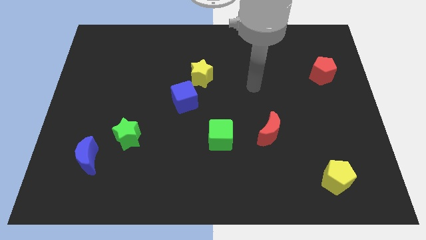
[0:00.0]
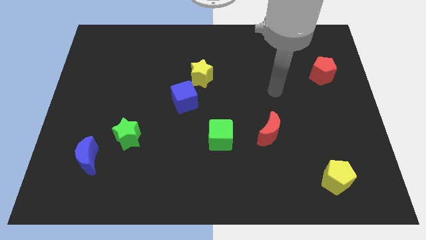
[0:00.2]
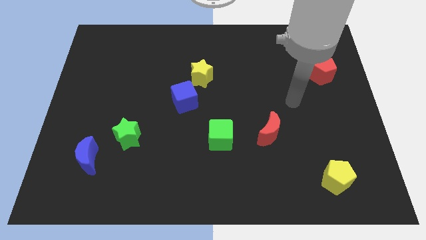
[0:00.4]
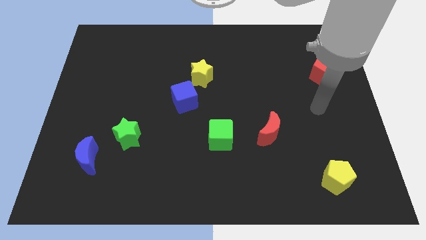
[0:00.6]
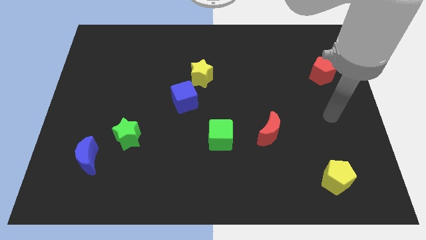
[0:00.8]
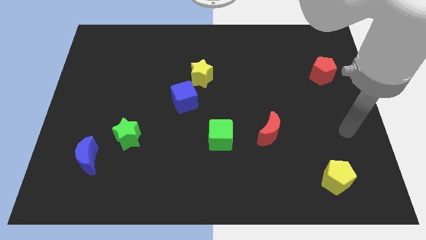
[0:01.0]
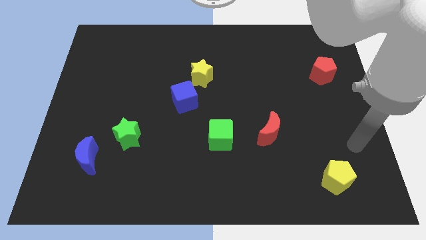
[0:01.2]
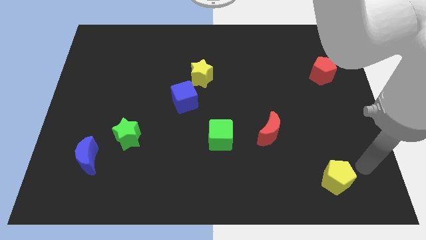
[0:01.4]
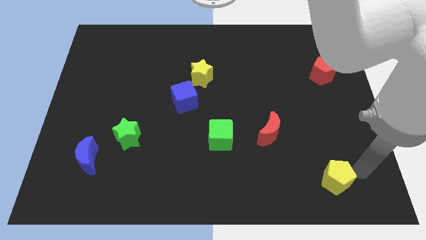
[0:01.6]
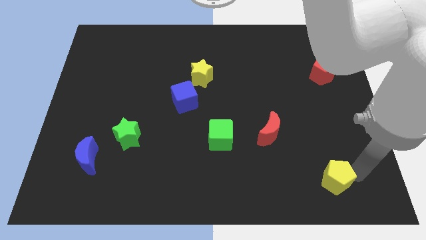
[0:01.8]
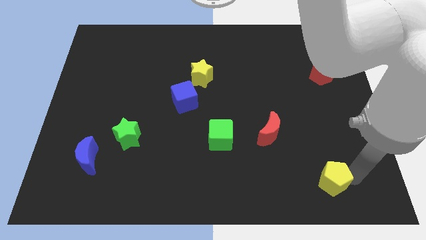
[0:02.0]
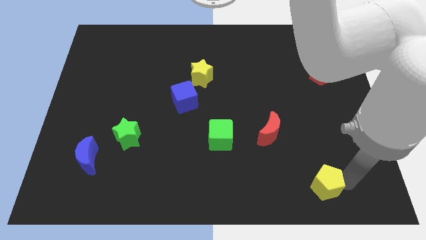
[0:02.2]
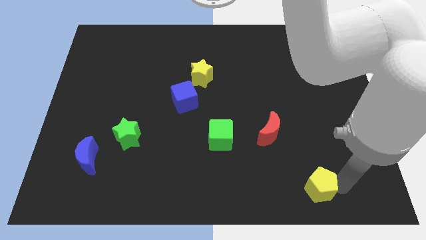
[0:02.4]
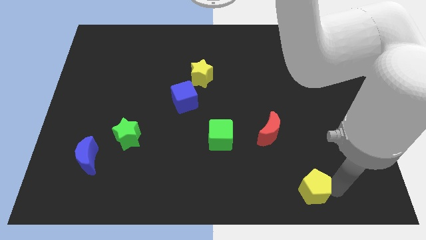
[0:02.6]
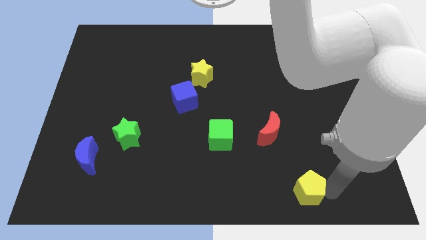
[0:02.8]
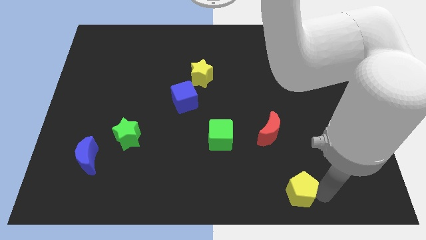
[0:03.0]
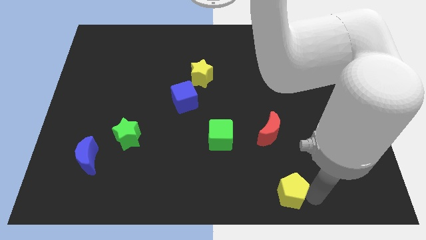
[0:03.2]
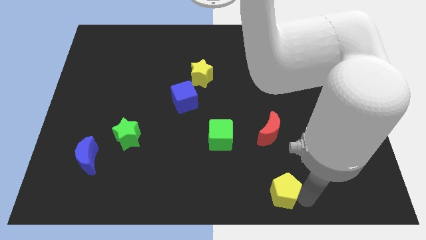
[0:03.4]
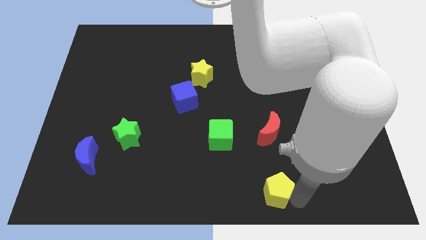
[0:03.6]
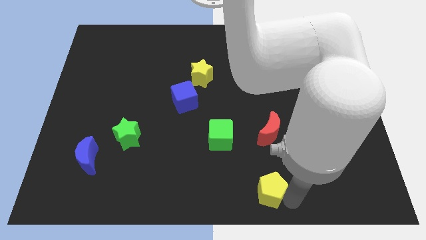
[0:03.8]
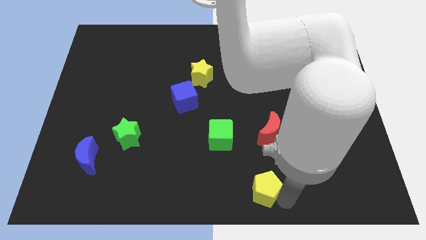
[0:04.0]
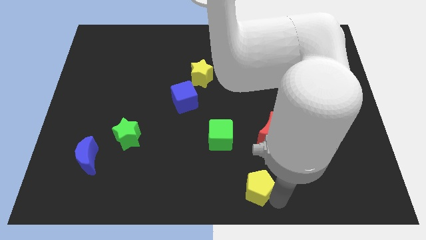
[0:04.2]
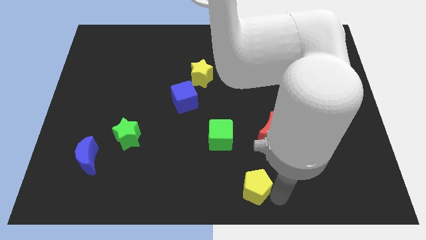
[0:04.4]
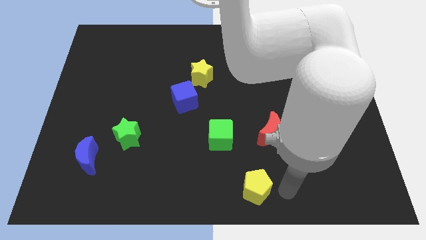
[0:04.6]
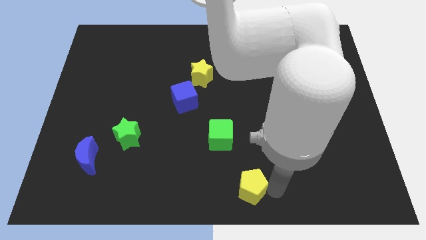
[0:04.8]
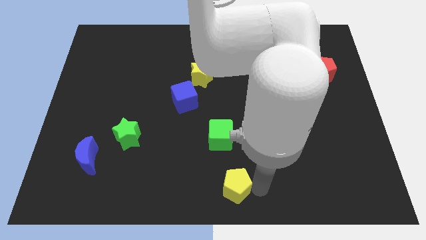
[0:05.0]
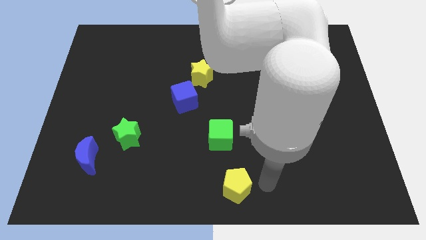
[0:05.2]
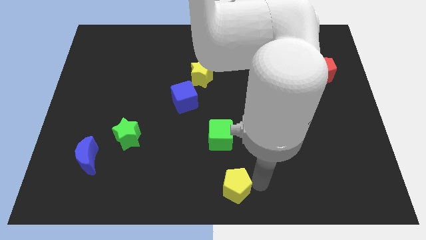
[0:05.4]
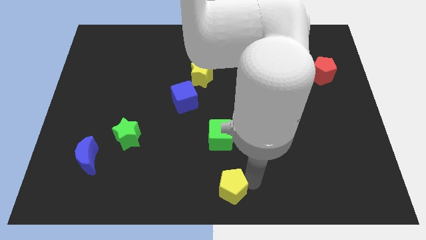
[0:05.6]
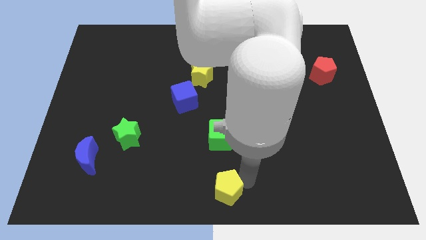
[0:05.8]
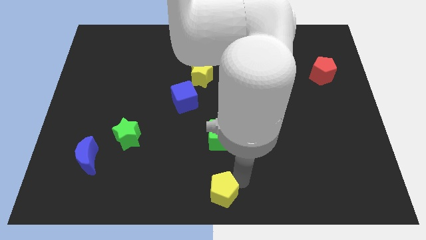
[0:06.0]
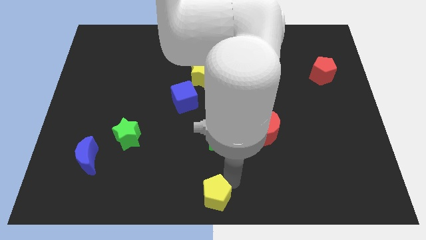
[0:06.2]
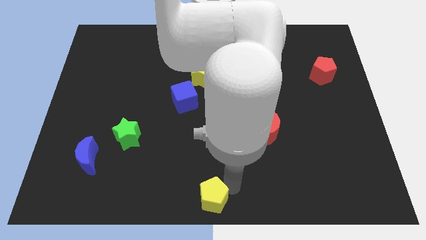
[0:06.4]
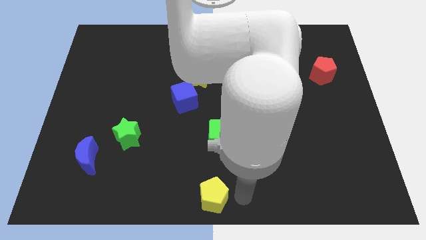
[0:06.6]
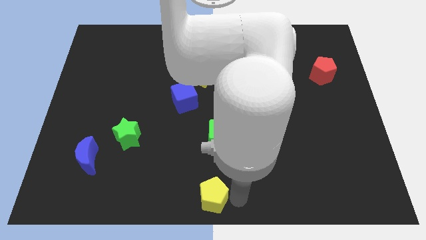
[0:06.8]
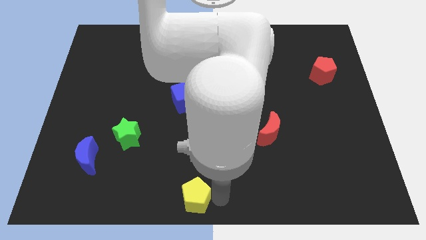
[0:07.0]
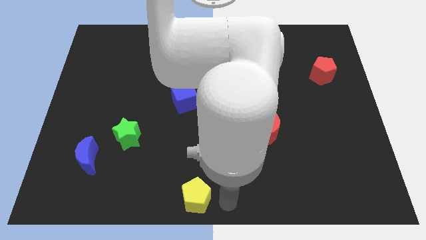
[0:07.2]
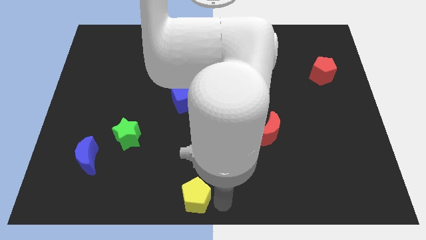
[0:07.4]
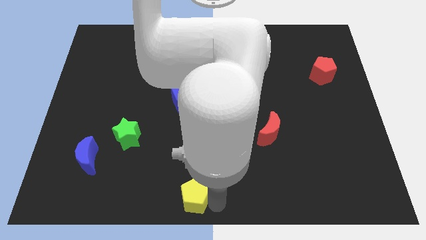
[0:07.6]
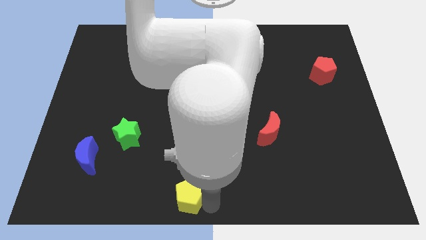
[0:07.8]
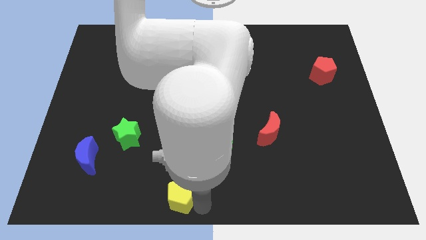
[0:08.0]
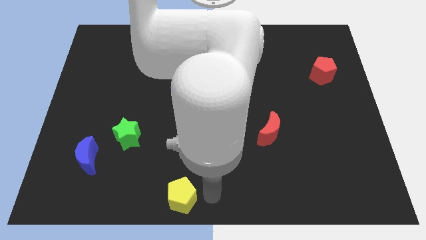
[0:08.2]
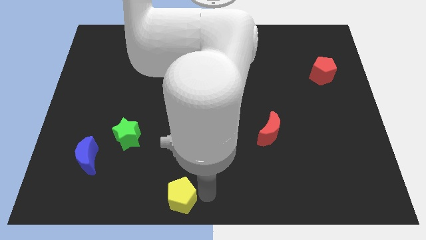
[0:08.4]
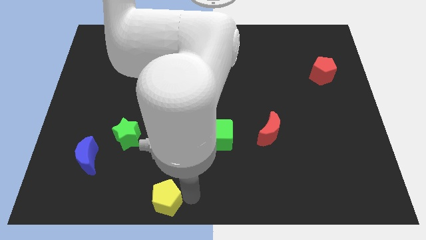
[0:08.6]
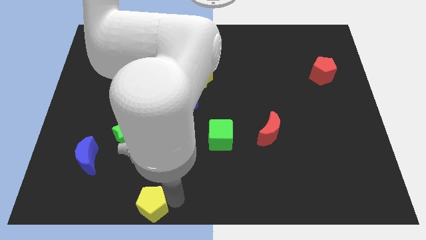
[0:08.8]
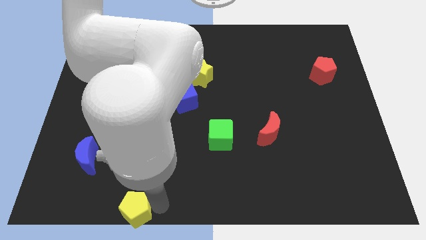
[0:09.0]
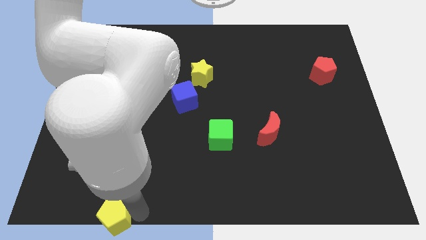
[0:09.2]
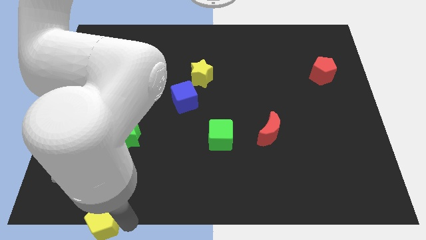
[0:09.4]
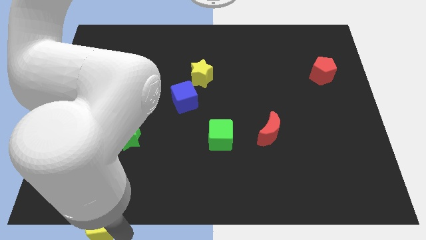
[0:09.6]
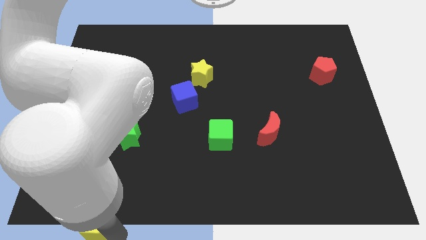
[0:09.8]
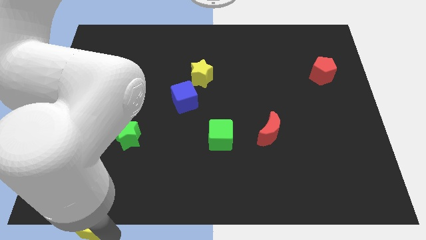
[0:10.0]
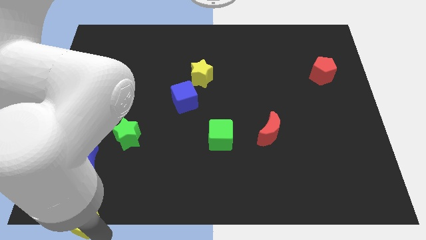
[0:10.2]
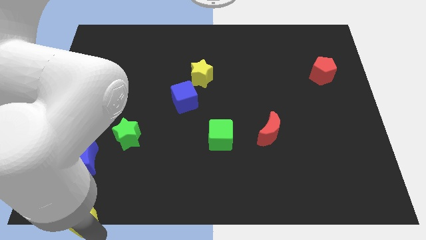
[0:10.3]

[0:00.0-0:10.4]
put the yellow pentagon to the bottom left

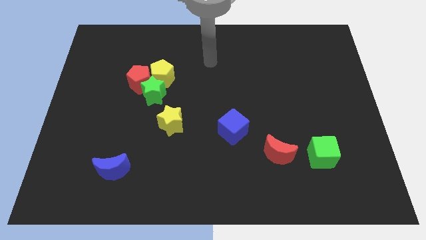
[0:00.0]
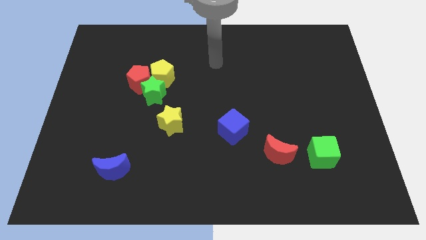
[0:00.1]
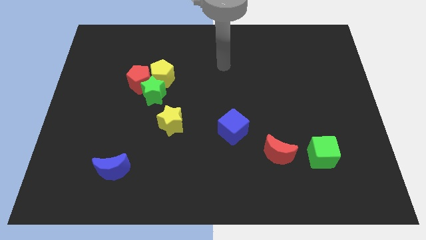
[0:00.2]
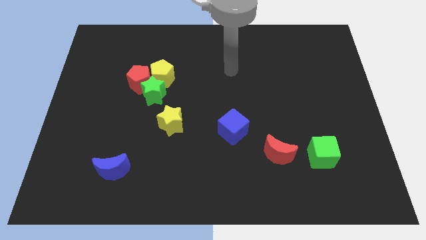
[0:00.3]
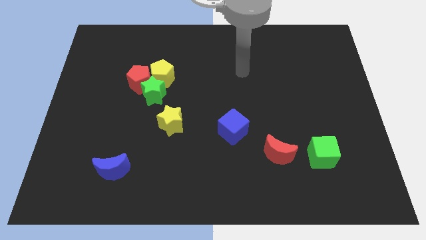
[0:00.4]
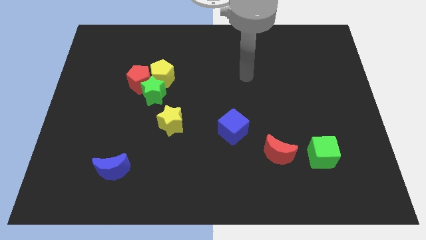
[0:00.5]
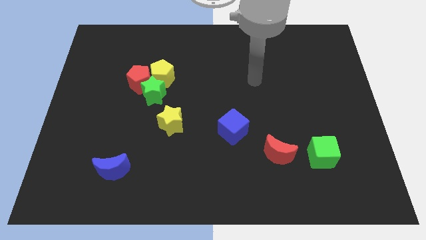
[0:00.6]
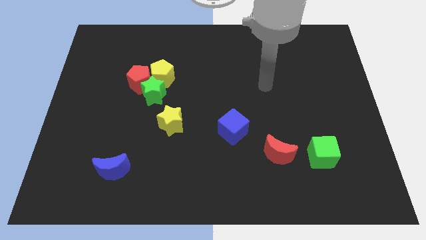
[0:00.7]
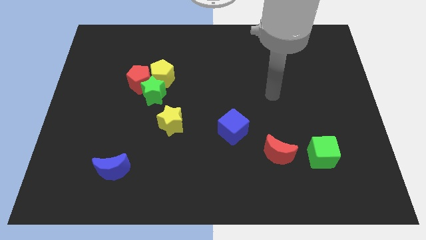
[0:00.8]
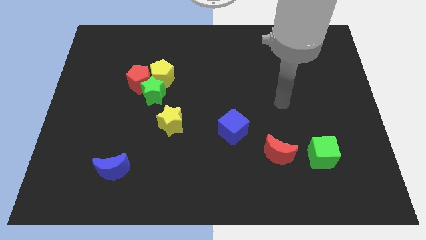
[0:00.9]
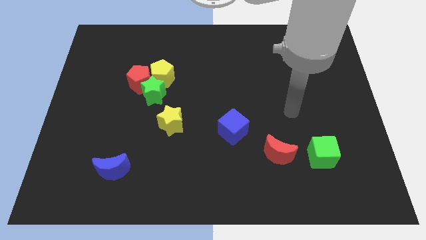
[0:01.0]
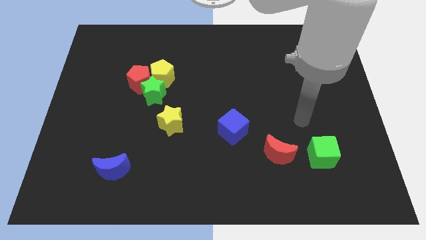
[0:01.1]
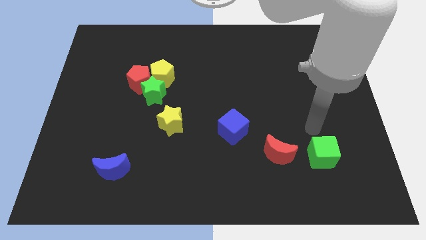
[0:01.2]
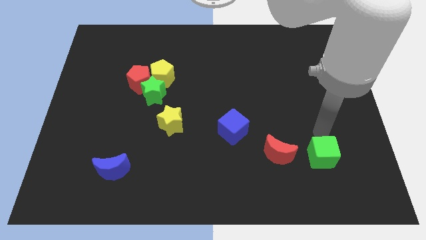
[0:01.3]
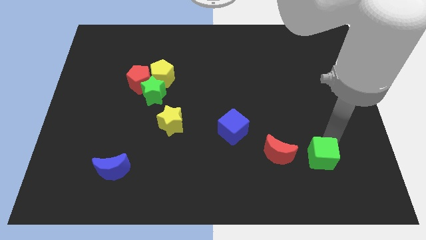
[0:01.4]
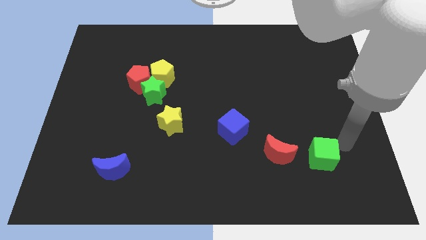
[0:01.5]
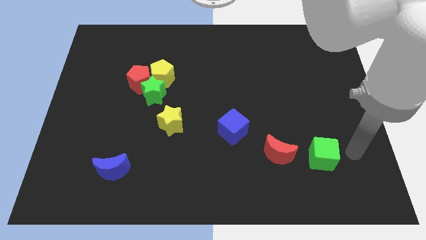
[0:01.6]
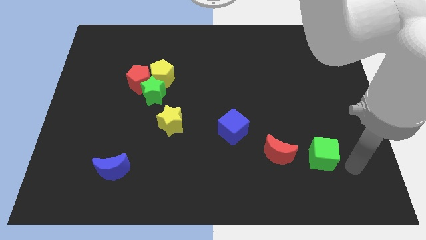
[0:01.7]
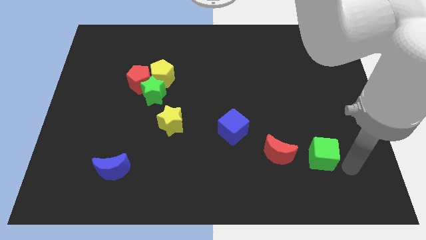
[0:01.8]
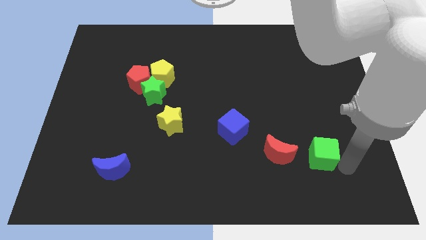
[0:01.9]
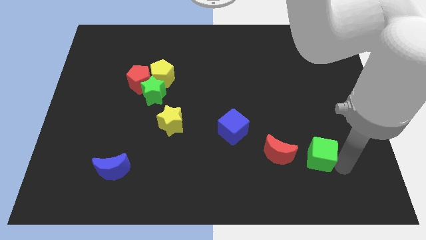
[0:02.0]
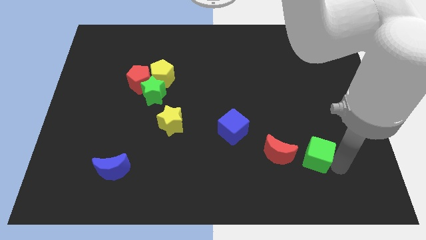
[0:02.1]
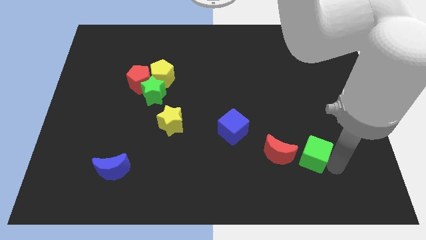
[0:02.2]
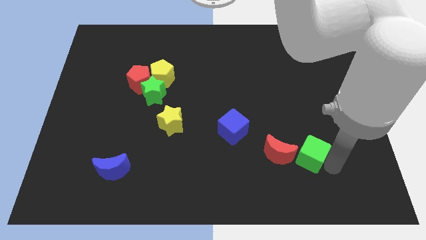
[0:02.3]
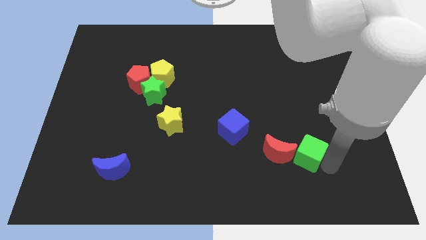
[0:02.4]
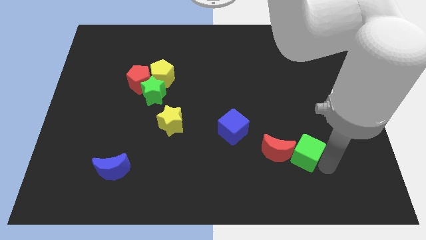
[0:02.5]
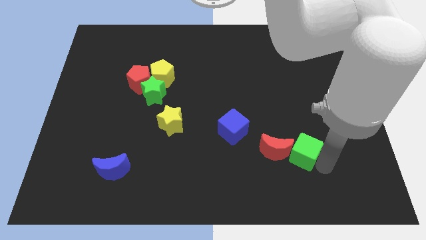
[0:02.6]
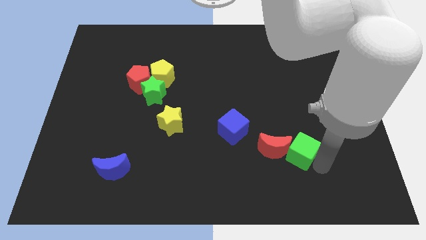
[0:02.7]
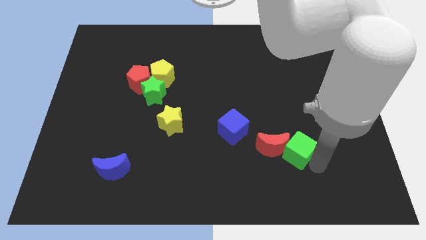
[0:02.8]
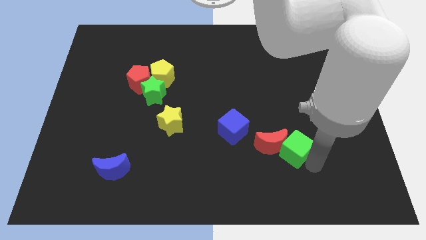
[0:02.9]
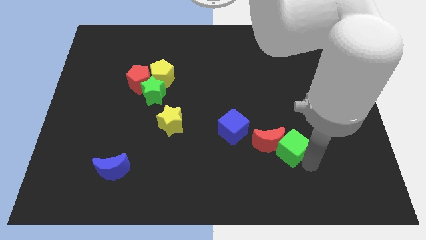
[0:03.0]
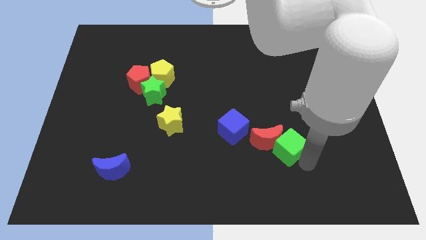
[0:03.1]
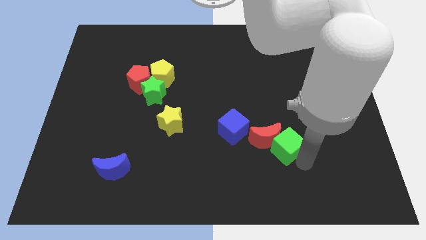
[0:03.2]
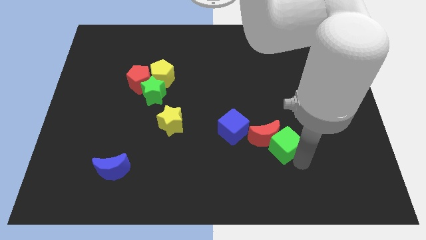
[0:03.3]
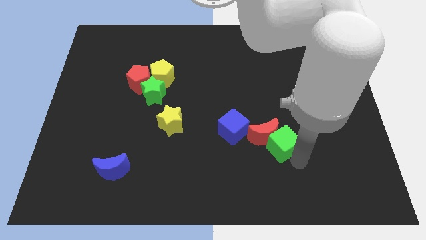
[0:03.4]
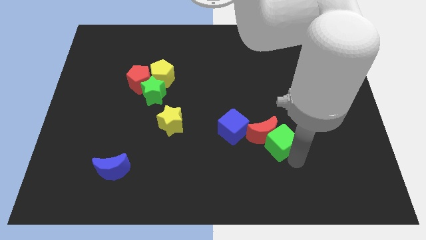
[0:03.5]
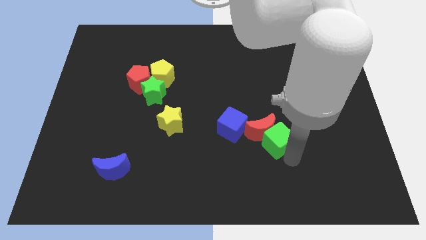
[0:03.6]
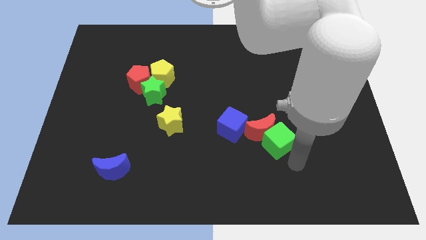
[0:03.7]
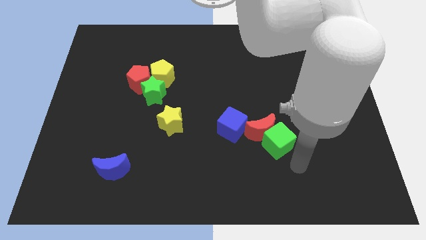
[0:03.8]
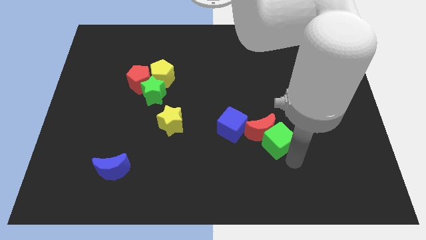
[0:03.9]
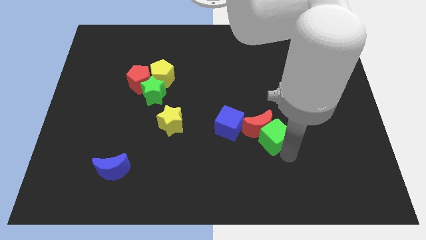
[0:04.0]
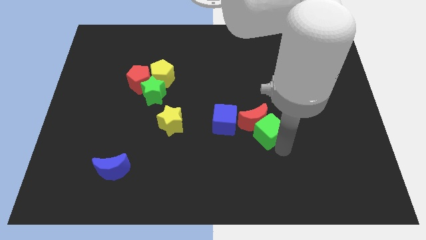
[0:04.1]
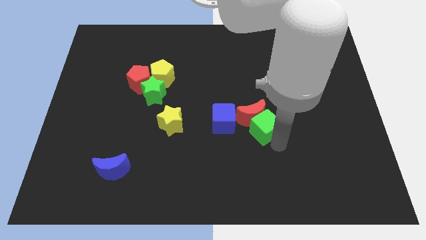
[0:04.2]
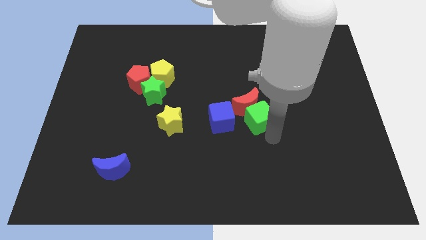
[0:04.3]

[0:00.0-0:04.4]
move the green cube to the center
